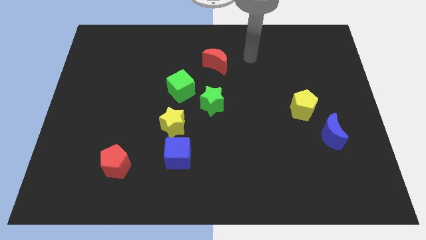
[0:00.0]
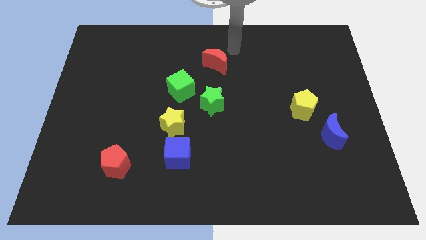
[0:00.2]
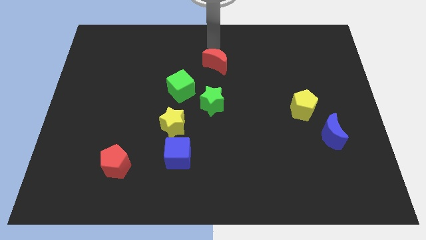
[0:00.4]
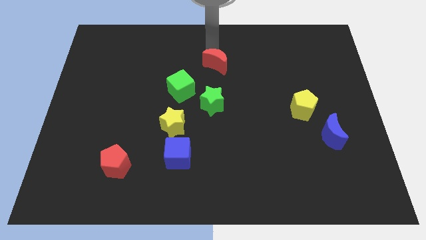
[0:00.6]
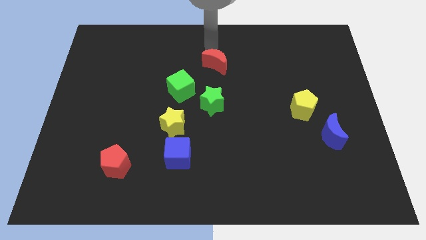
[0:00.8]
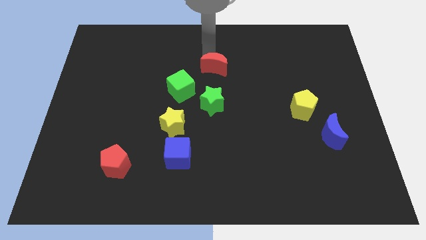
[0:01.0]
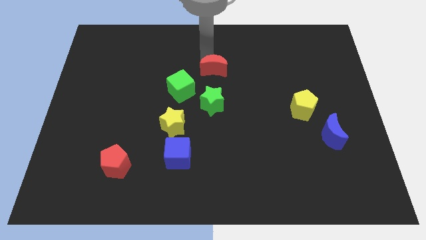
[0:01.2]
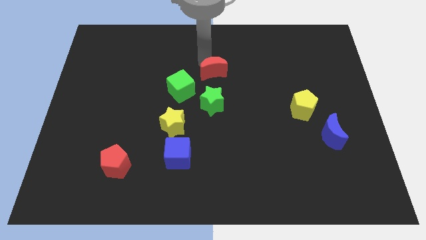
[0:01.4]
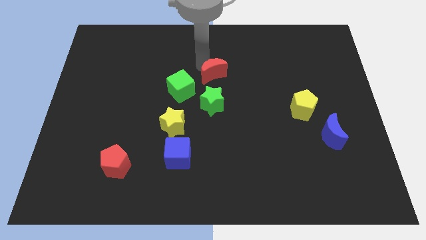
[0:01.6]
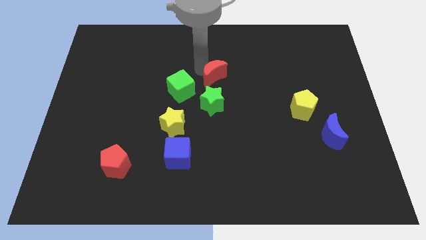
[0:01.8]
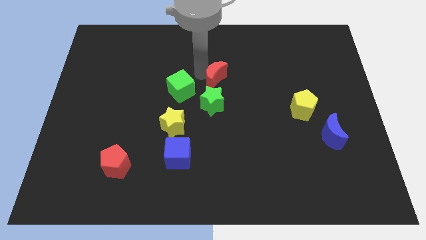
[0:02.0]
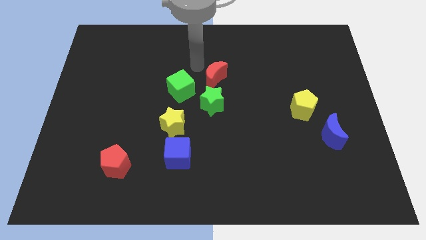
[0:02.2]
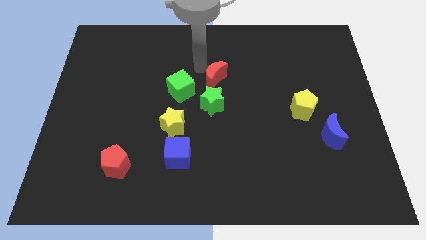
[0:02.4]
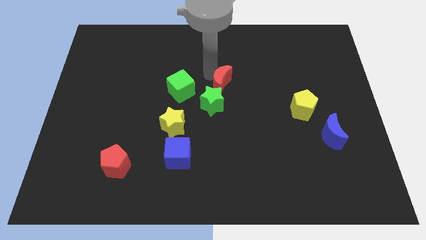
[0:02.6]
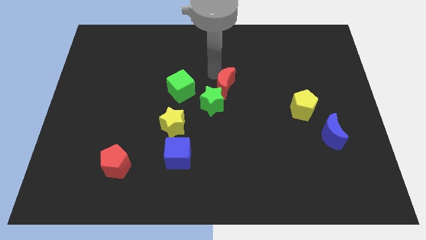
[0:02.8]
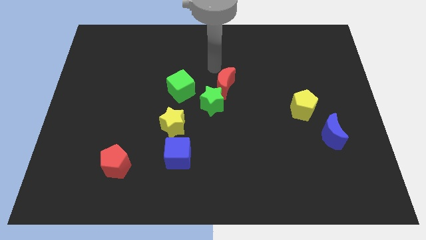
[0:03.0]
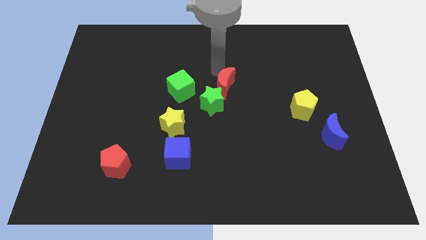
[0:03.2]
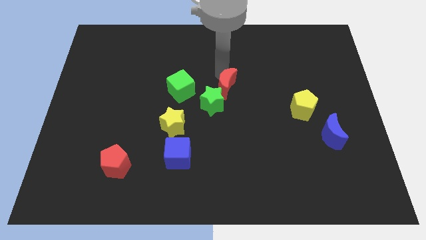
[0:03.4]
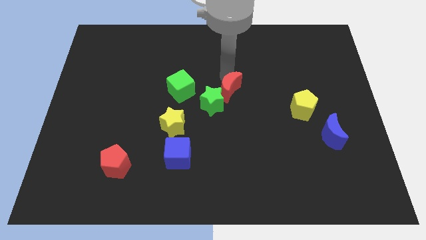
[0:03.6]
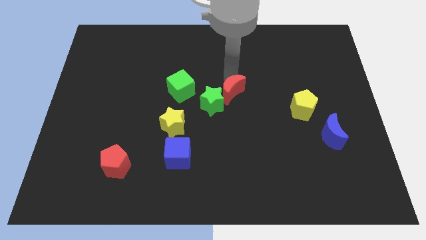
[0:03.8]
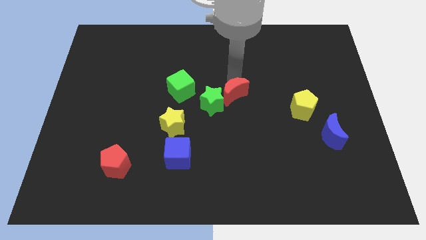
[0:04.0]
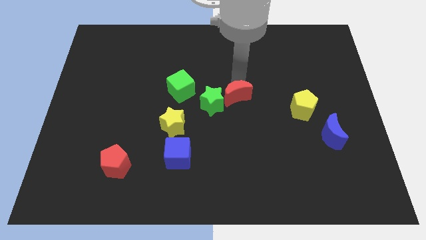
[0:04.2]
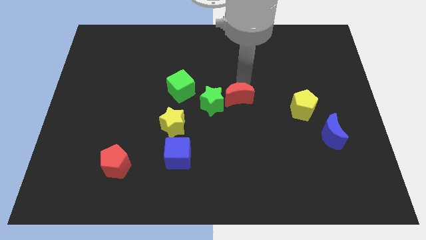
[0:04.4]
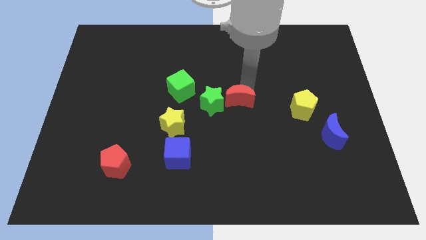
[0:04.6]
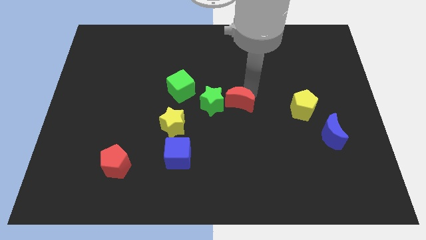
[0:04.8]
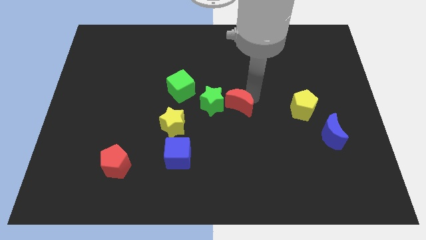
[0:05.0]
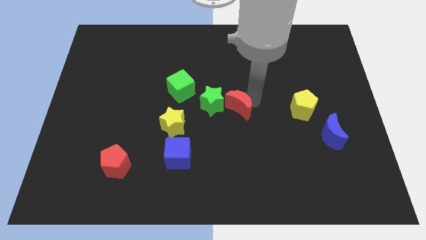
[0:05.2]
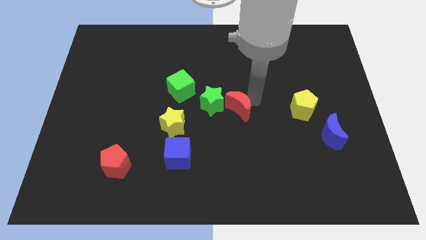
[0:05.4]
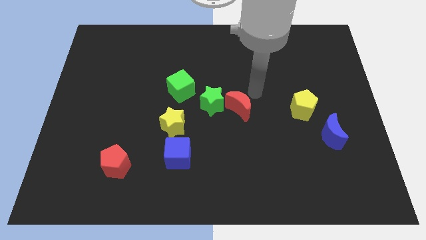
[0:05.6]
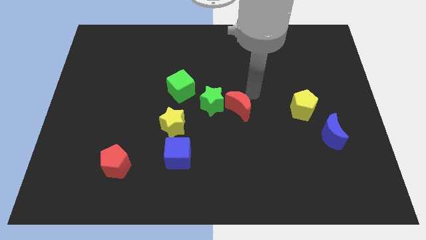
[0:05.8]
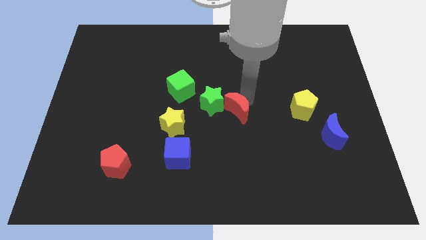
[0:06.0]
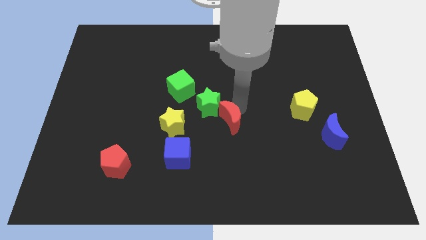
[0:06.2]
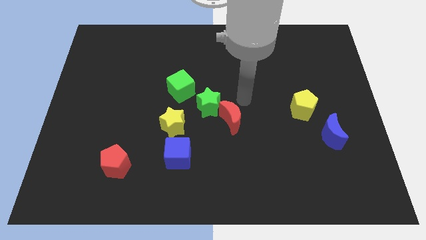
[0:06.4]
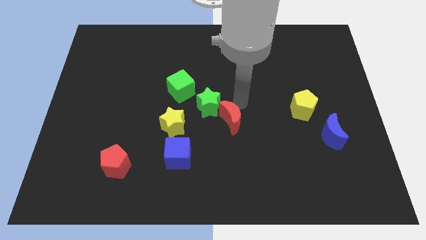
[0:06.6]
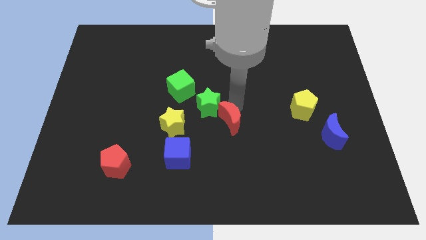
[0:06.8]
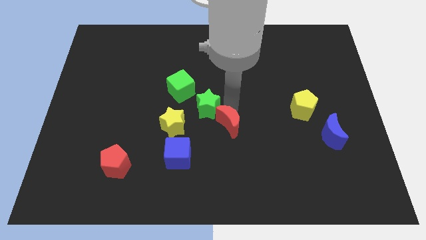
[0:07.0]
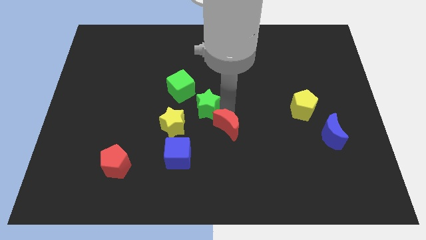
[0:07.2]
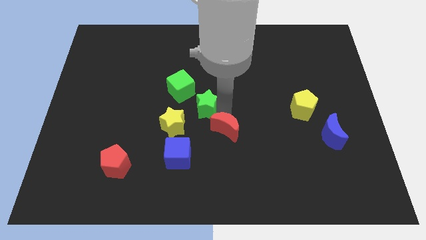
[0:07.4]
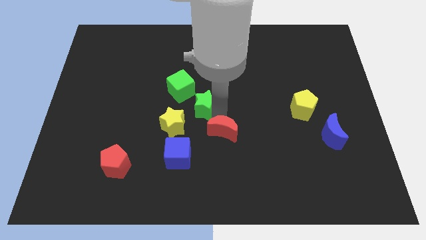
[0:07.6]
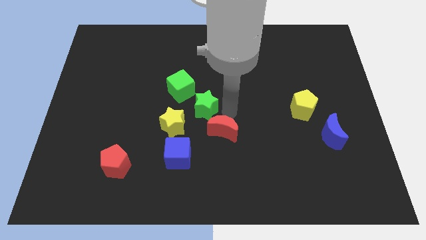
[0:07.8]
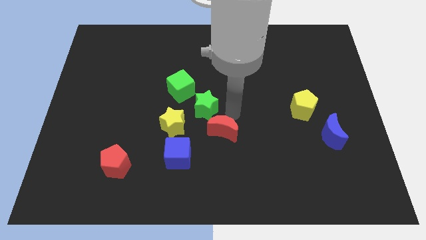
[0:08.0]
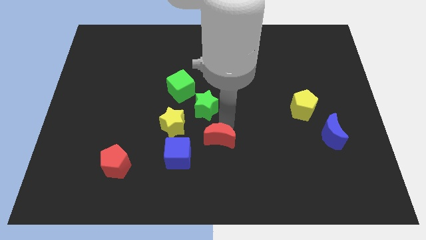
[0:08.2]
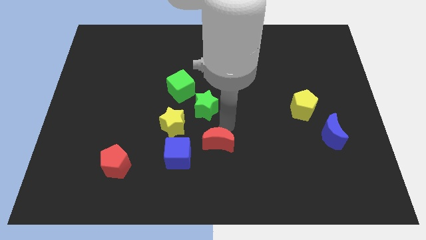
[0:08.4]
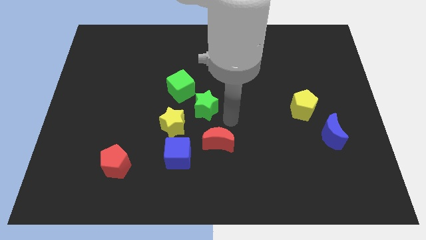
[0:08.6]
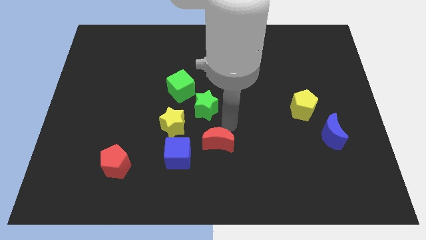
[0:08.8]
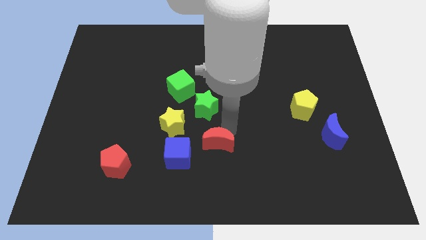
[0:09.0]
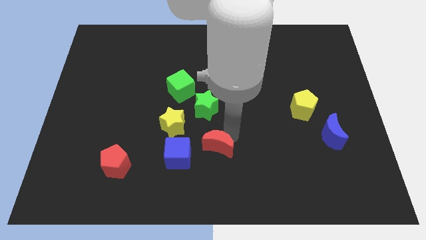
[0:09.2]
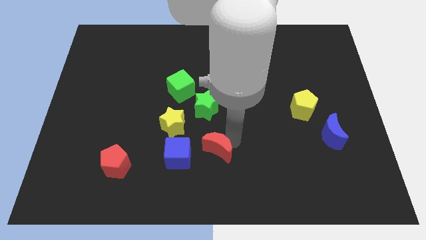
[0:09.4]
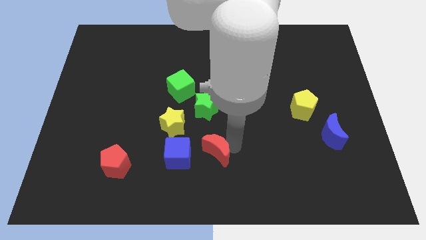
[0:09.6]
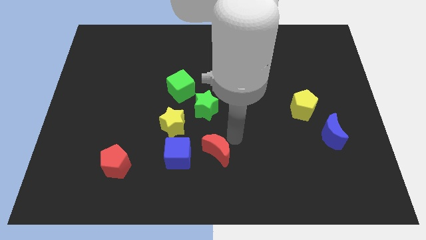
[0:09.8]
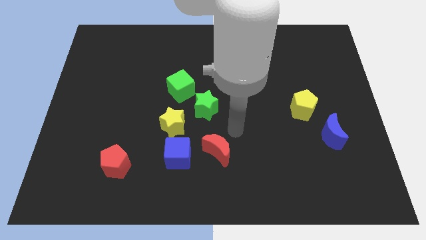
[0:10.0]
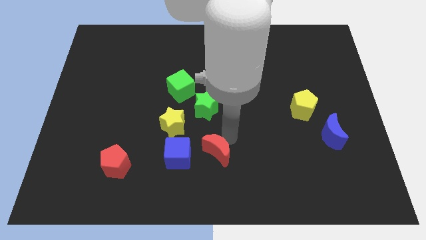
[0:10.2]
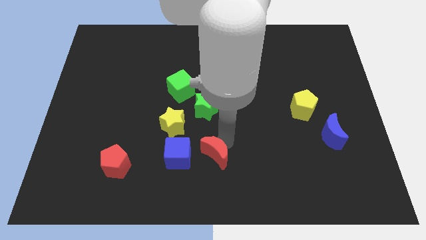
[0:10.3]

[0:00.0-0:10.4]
move the red moon to the bottom side
